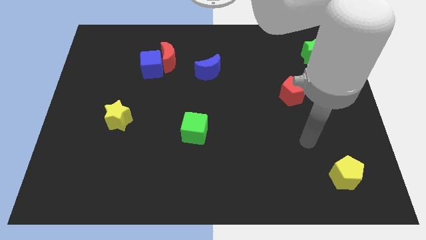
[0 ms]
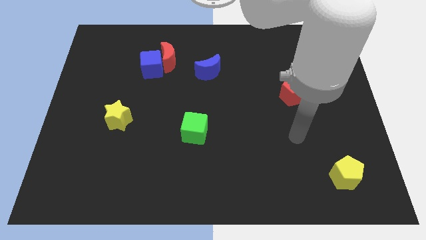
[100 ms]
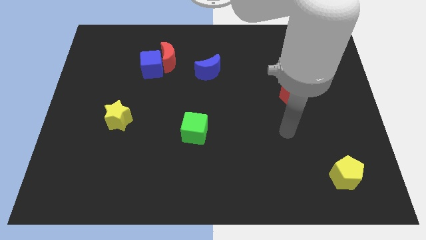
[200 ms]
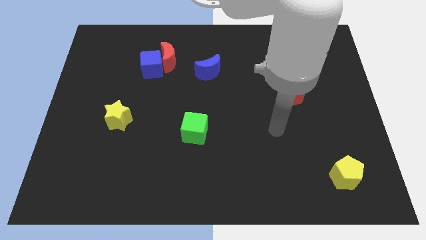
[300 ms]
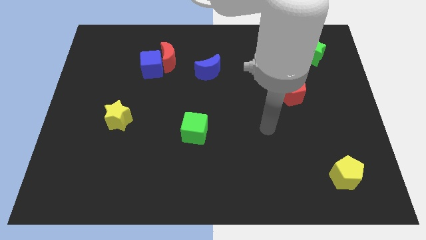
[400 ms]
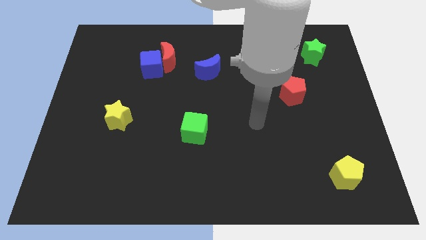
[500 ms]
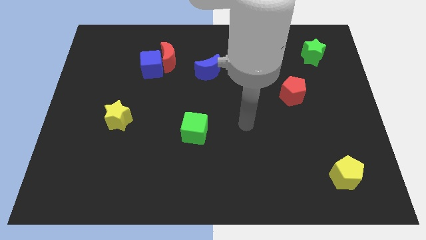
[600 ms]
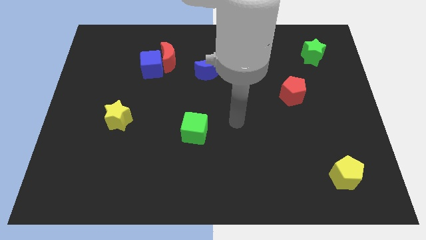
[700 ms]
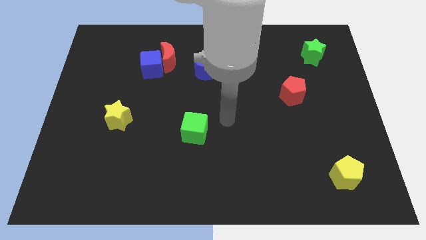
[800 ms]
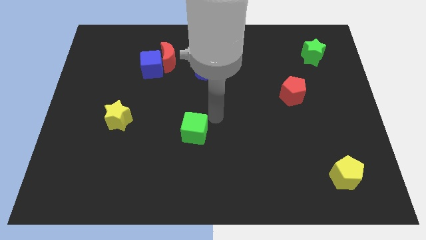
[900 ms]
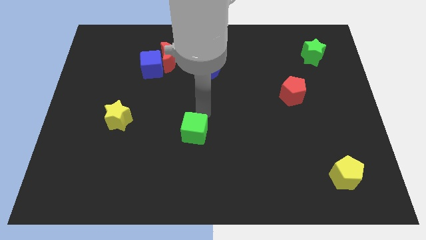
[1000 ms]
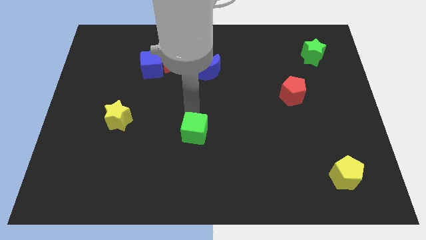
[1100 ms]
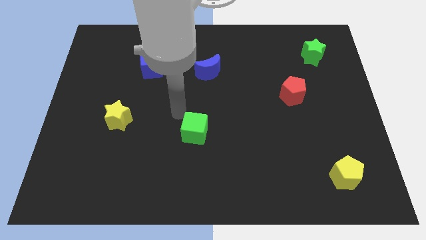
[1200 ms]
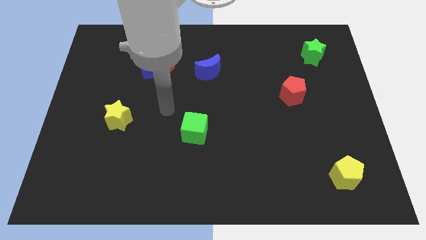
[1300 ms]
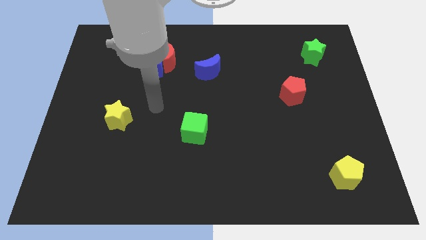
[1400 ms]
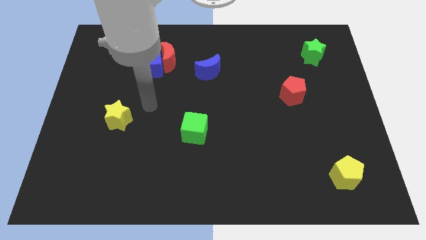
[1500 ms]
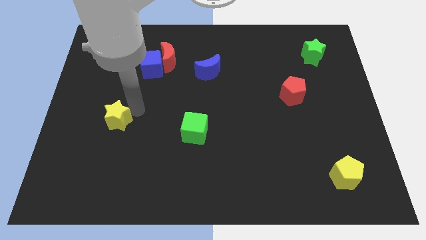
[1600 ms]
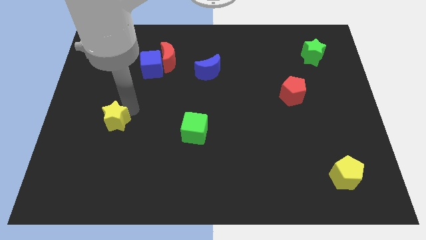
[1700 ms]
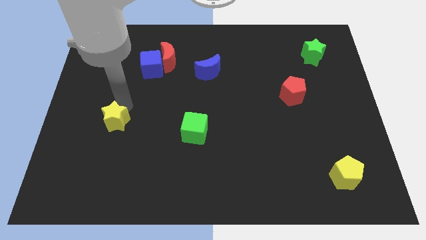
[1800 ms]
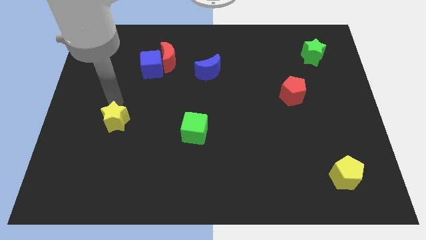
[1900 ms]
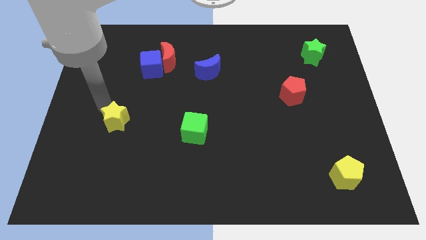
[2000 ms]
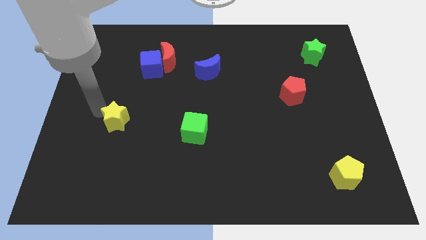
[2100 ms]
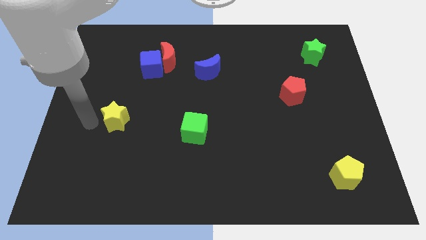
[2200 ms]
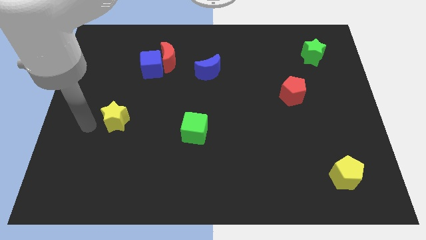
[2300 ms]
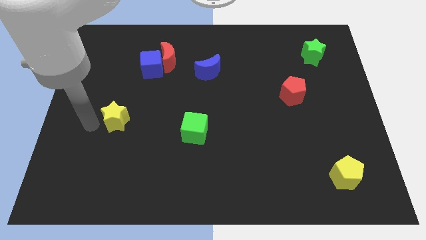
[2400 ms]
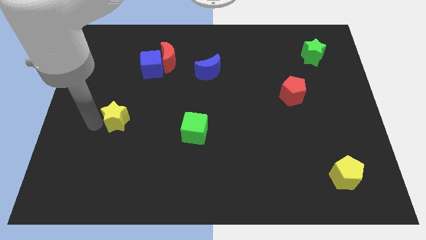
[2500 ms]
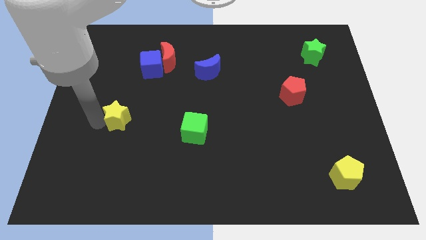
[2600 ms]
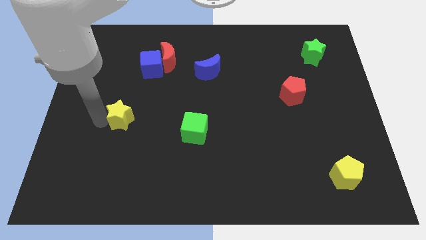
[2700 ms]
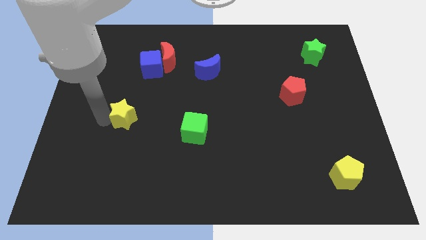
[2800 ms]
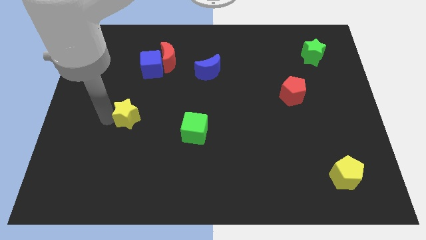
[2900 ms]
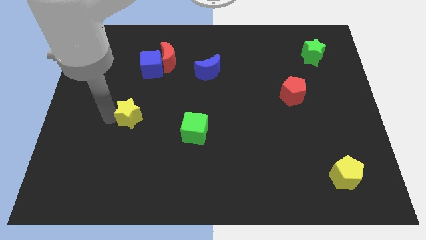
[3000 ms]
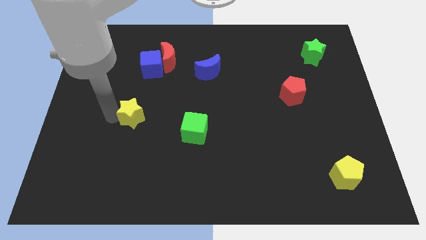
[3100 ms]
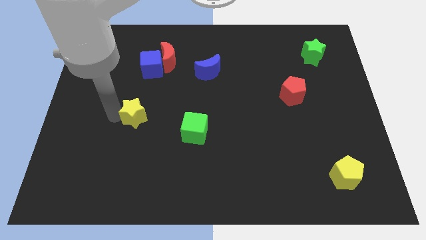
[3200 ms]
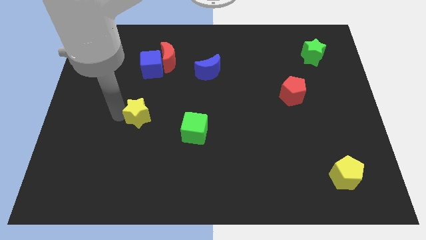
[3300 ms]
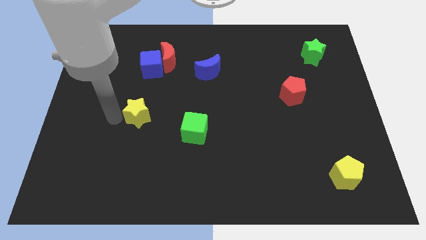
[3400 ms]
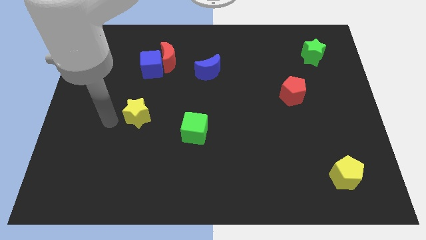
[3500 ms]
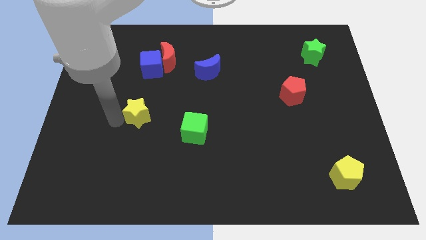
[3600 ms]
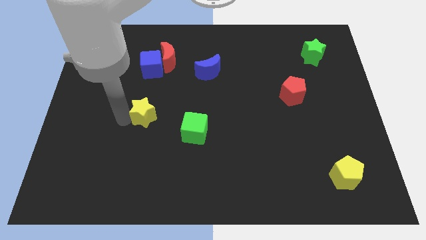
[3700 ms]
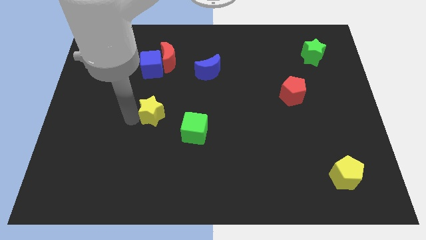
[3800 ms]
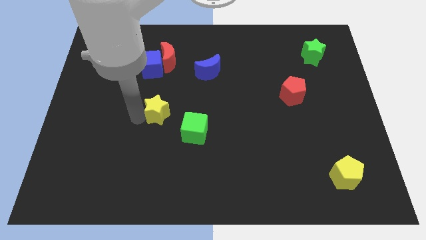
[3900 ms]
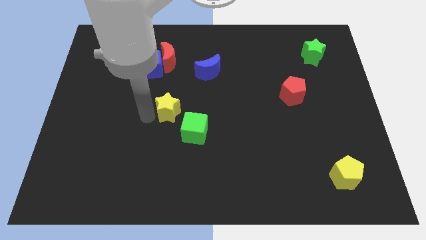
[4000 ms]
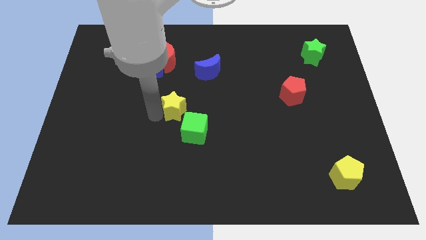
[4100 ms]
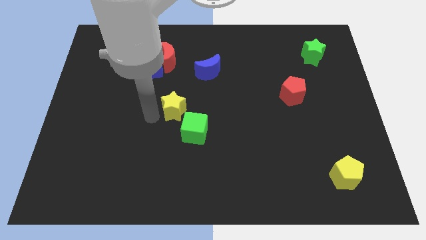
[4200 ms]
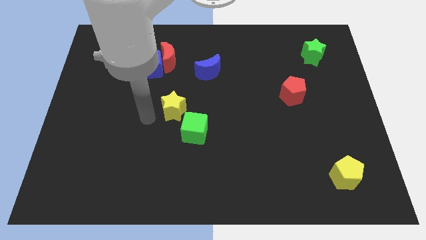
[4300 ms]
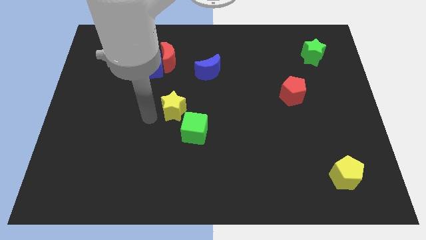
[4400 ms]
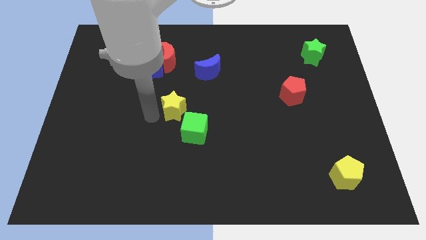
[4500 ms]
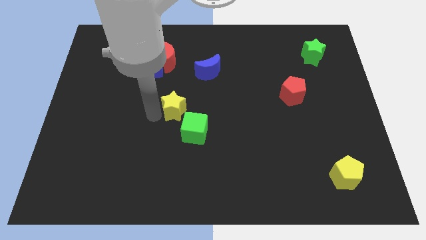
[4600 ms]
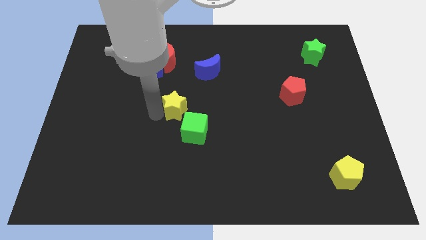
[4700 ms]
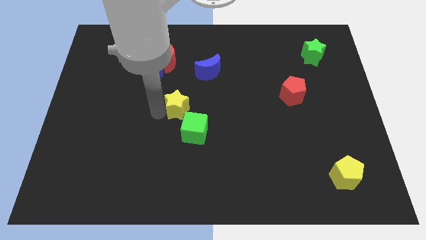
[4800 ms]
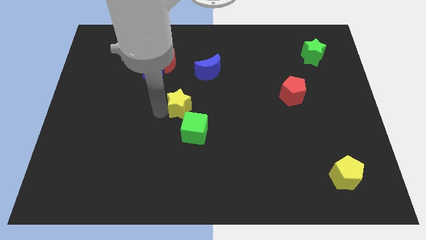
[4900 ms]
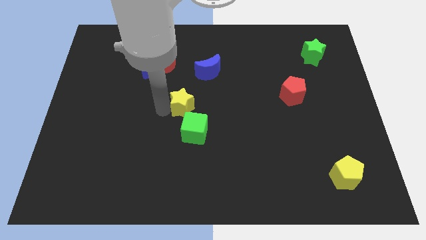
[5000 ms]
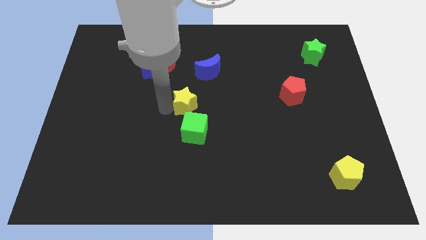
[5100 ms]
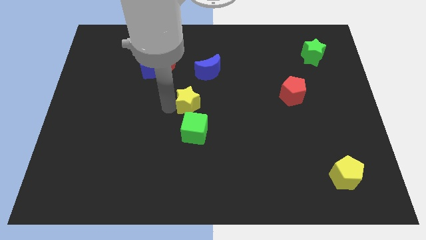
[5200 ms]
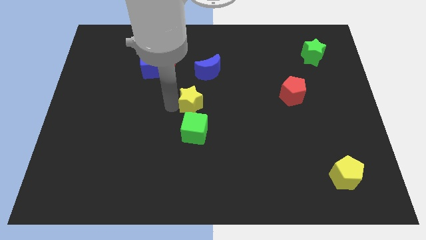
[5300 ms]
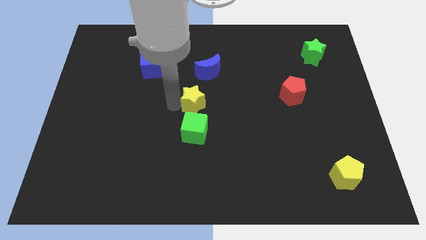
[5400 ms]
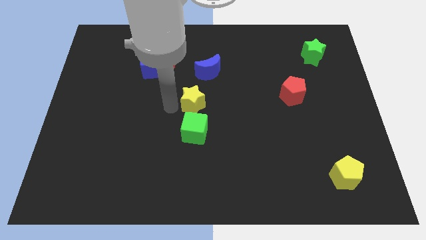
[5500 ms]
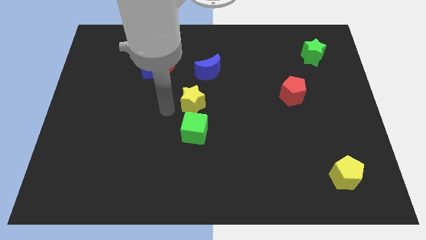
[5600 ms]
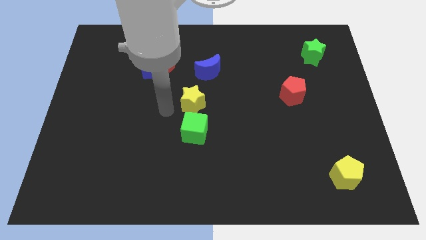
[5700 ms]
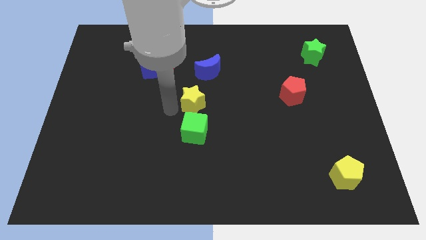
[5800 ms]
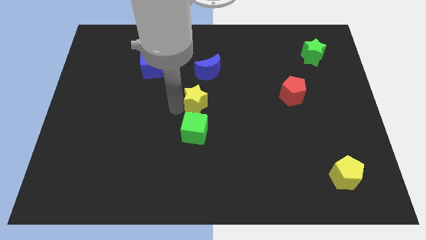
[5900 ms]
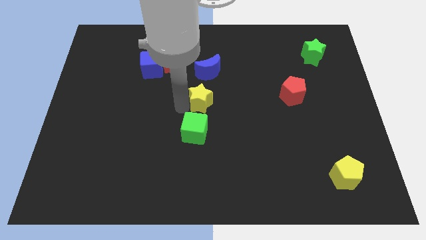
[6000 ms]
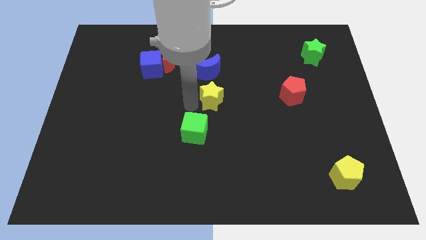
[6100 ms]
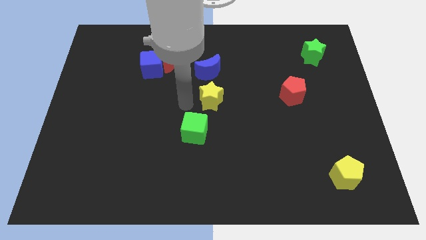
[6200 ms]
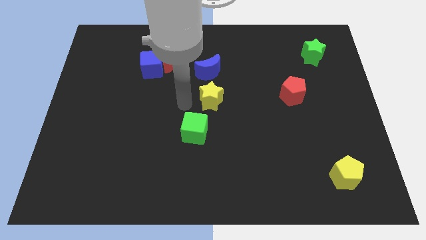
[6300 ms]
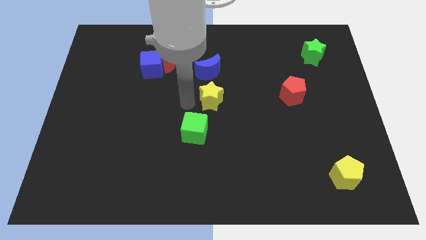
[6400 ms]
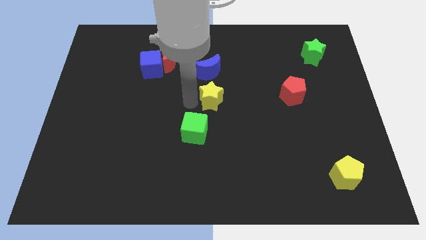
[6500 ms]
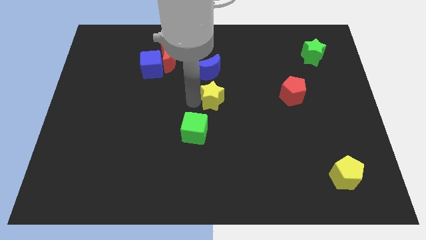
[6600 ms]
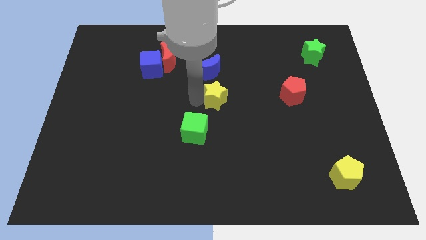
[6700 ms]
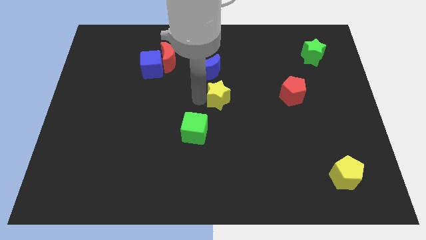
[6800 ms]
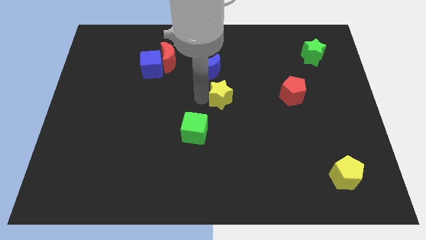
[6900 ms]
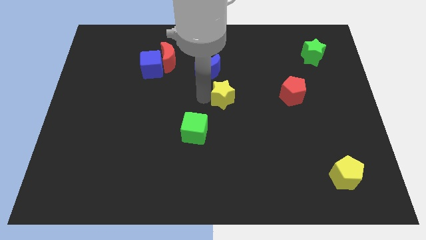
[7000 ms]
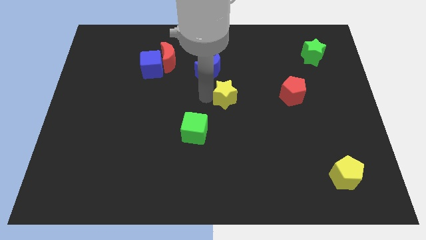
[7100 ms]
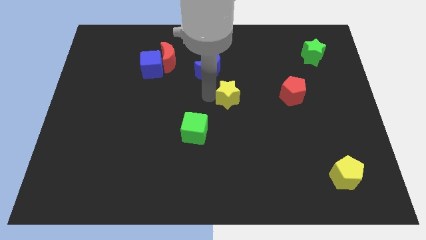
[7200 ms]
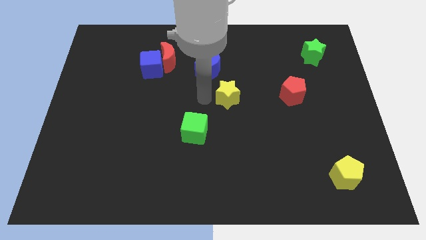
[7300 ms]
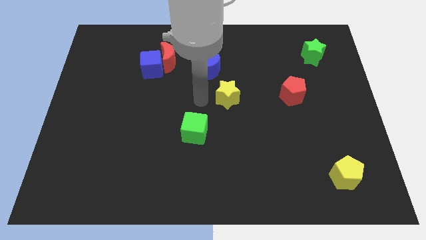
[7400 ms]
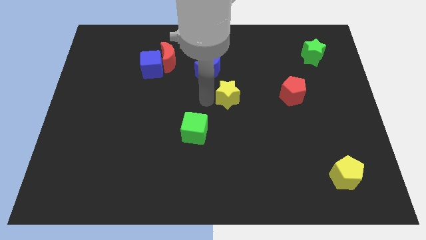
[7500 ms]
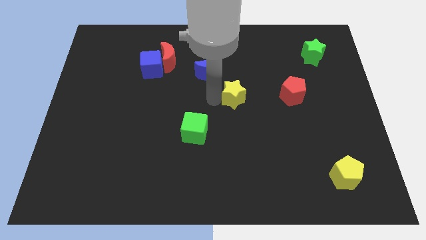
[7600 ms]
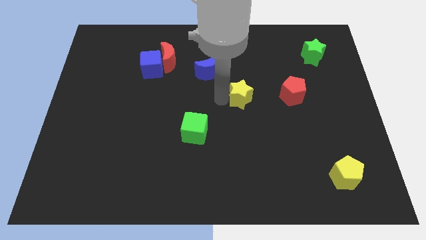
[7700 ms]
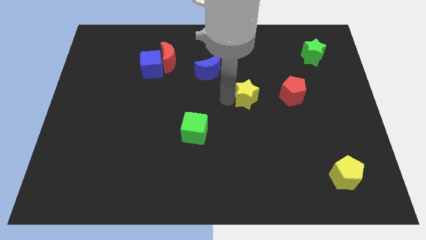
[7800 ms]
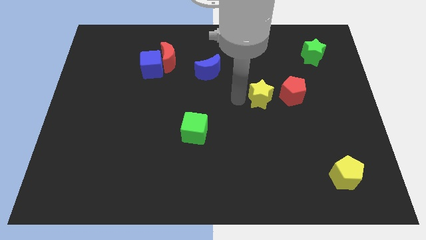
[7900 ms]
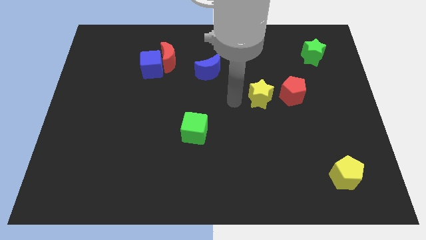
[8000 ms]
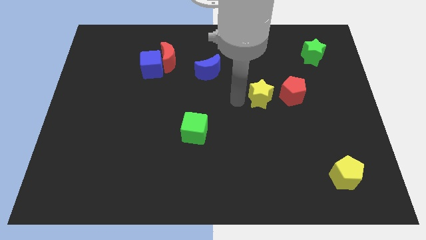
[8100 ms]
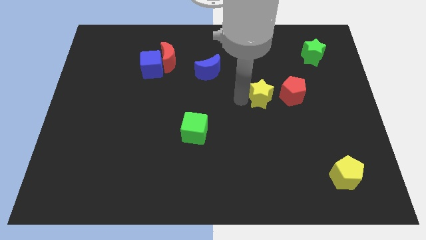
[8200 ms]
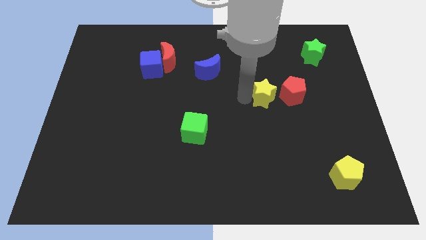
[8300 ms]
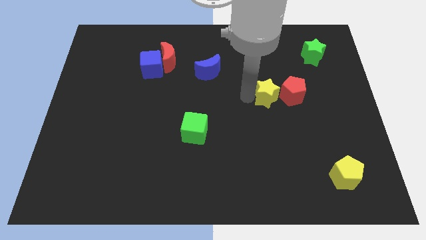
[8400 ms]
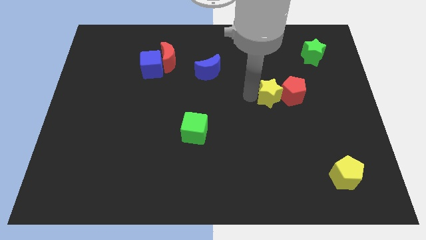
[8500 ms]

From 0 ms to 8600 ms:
move the yellow star towards the red pentagon
